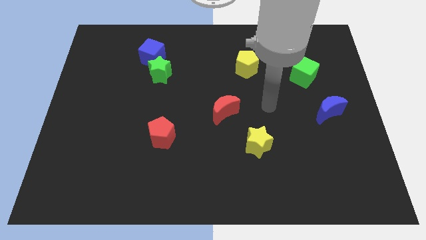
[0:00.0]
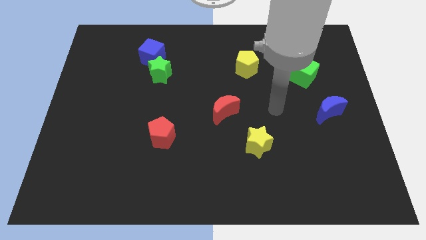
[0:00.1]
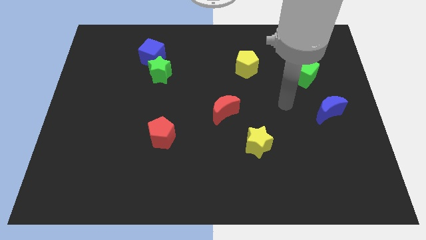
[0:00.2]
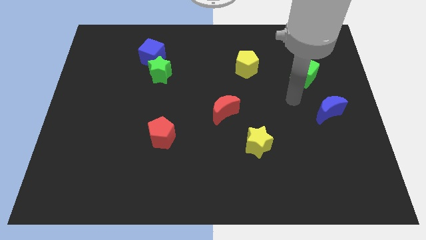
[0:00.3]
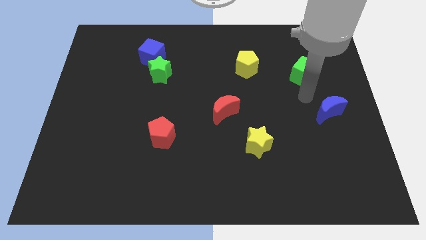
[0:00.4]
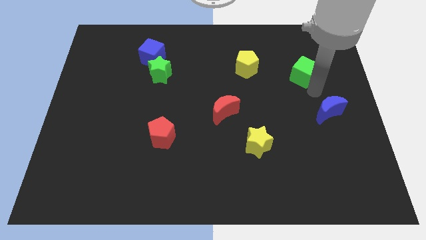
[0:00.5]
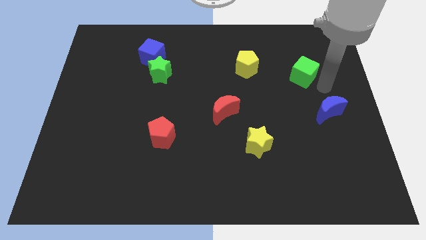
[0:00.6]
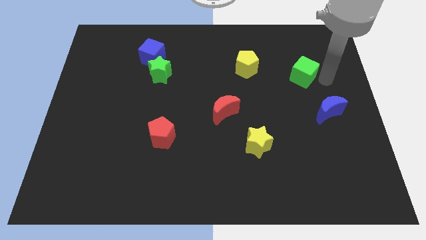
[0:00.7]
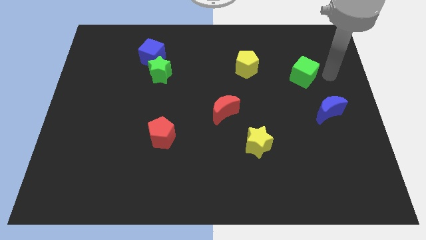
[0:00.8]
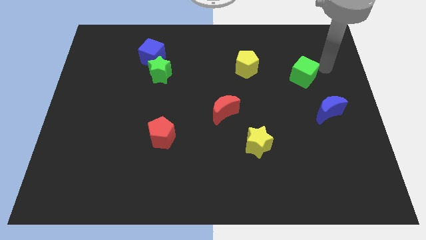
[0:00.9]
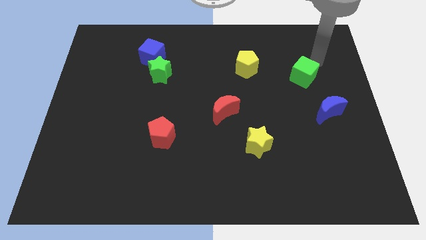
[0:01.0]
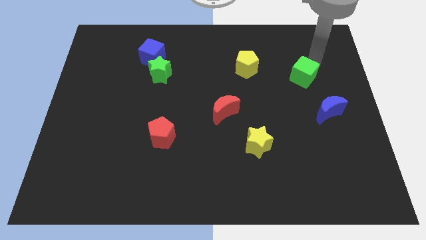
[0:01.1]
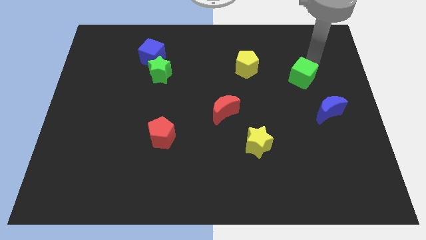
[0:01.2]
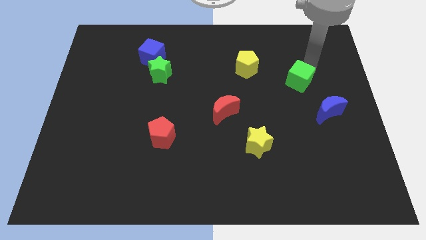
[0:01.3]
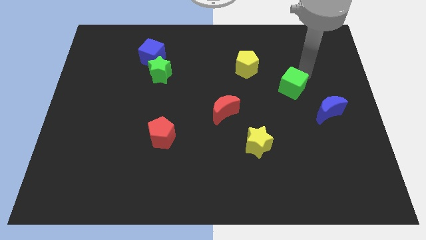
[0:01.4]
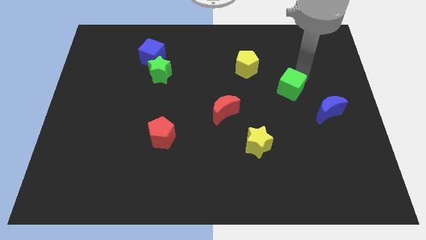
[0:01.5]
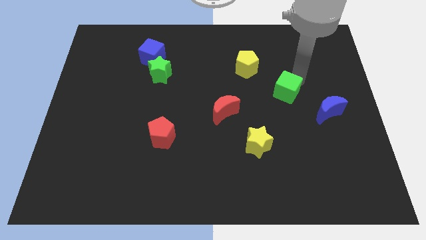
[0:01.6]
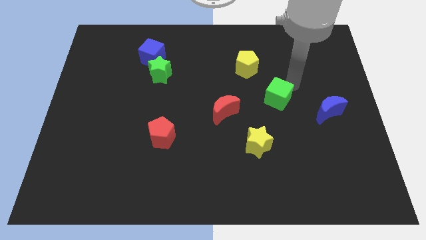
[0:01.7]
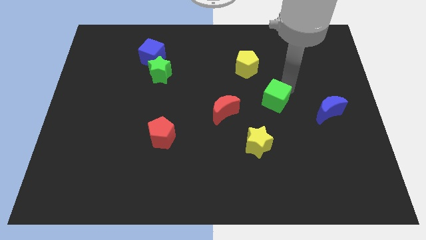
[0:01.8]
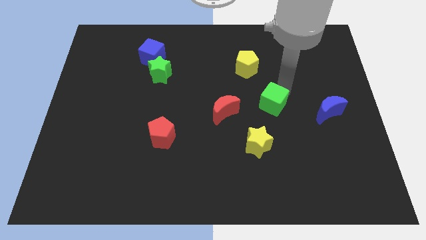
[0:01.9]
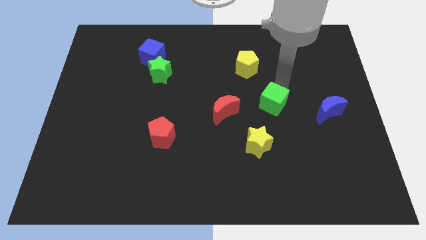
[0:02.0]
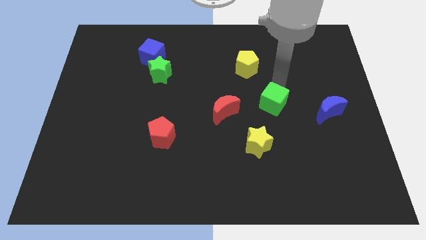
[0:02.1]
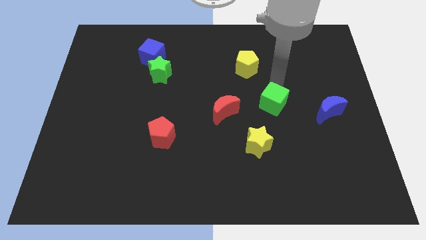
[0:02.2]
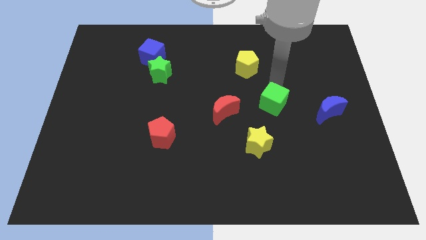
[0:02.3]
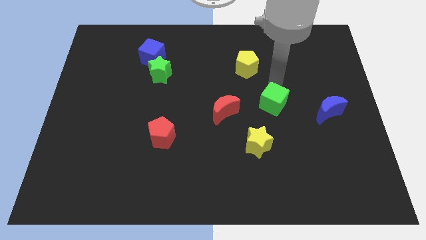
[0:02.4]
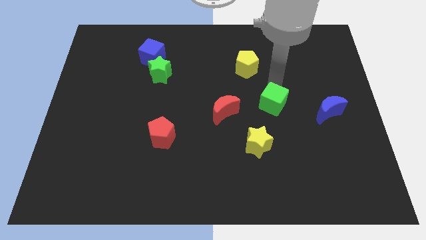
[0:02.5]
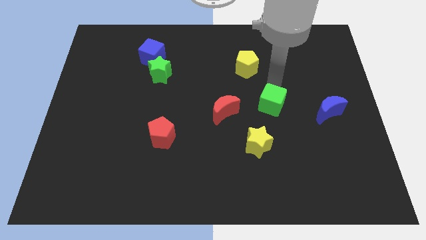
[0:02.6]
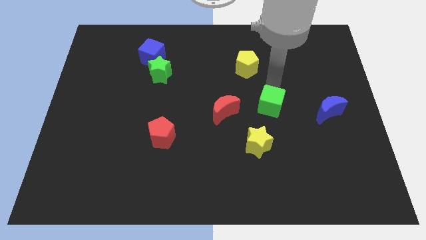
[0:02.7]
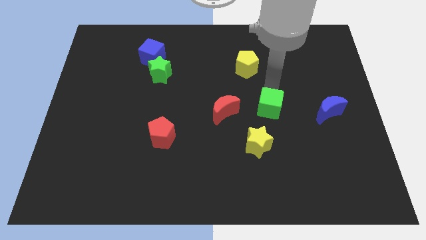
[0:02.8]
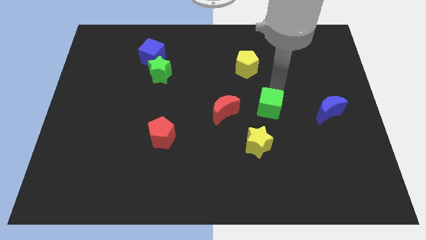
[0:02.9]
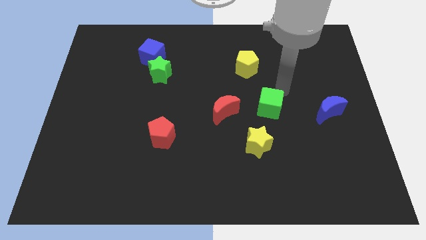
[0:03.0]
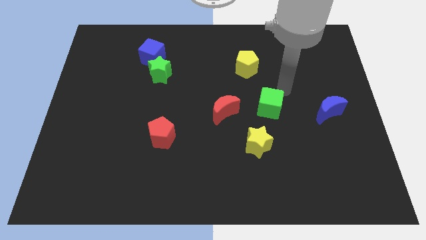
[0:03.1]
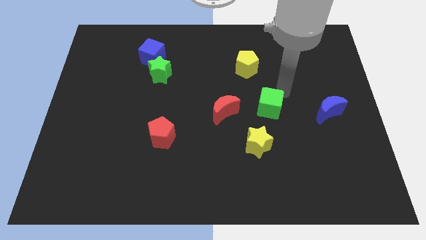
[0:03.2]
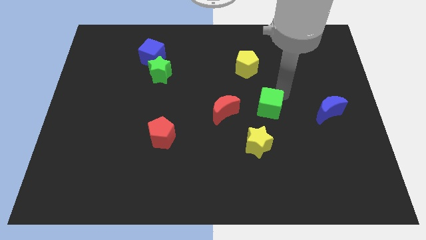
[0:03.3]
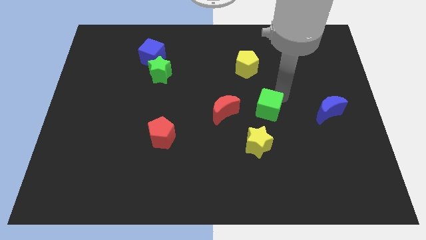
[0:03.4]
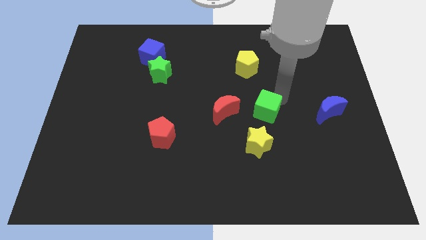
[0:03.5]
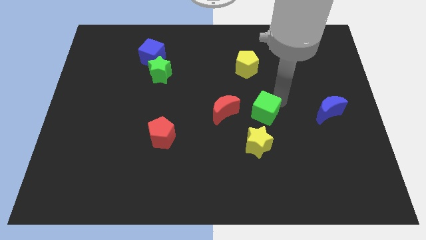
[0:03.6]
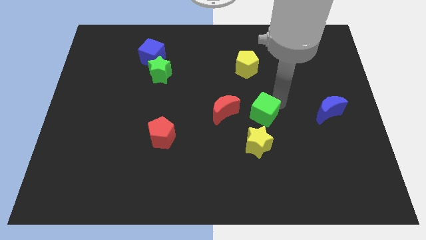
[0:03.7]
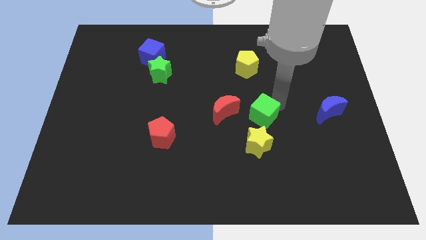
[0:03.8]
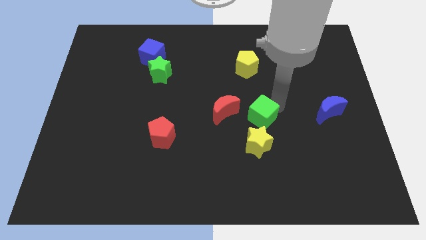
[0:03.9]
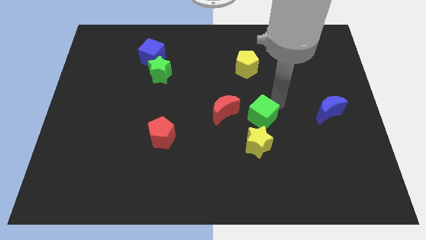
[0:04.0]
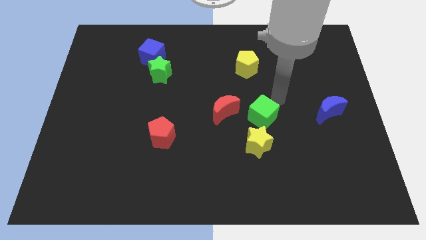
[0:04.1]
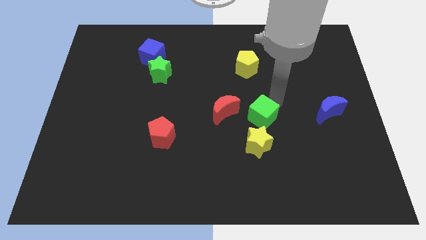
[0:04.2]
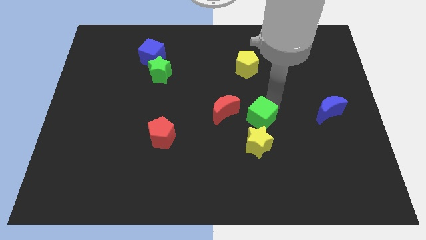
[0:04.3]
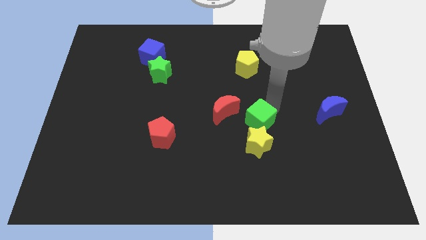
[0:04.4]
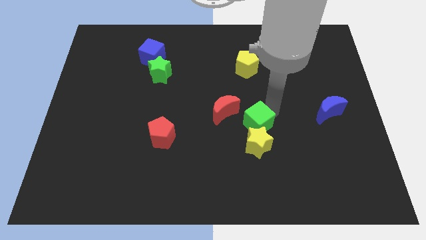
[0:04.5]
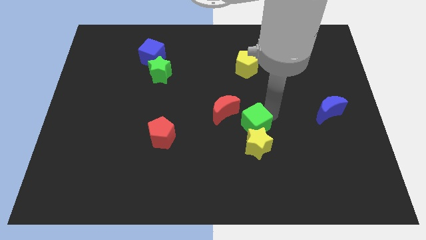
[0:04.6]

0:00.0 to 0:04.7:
move the green cube diagonally down and to the left

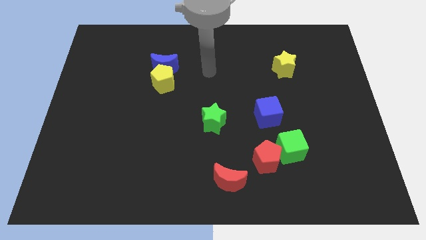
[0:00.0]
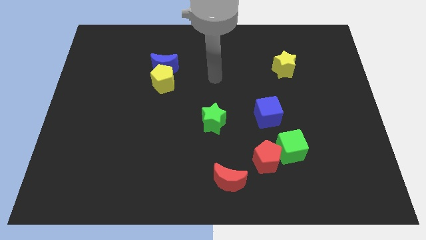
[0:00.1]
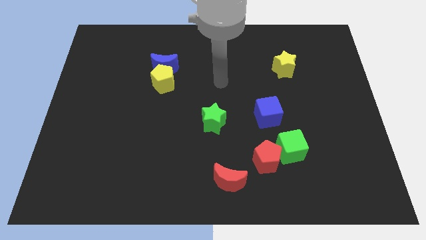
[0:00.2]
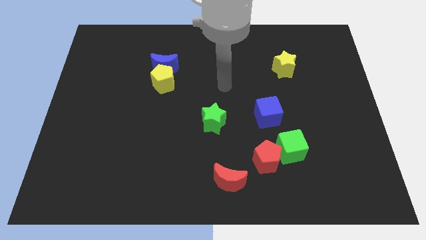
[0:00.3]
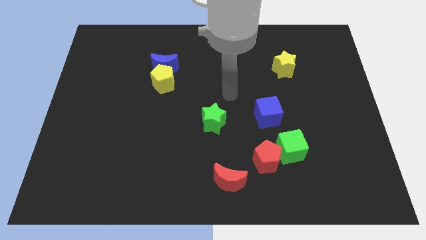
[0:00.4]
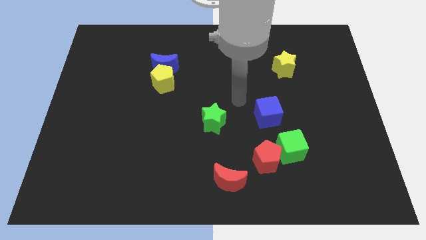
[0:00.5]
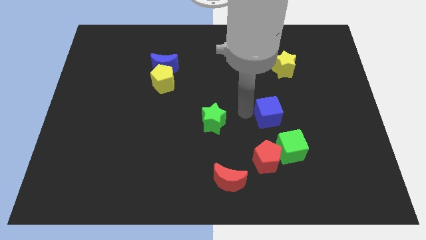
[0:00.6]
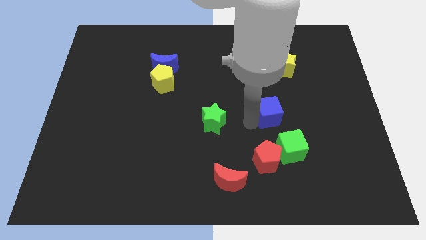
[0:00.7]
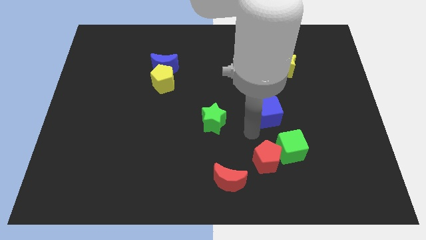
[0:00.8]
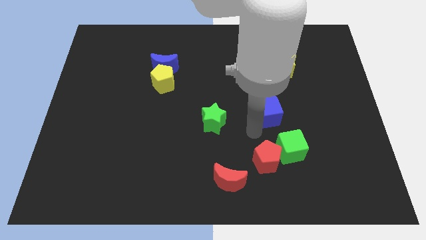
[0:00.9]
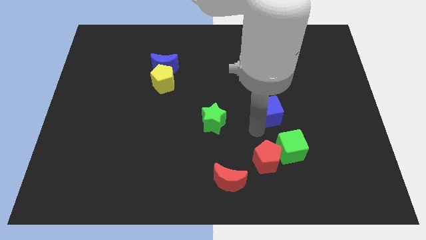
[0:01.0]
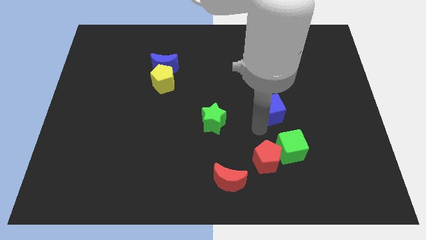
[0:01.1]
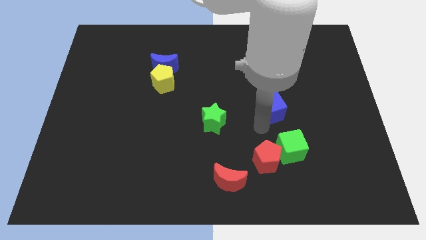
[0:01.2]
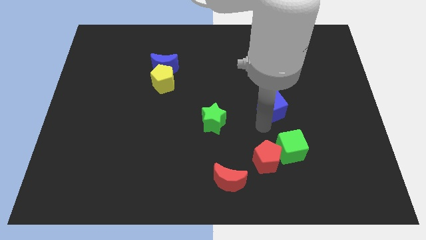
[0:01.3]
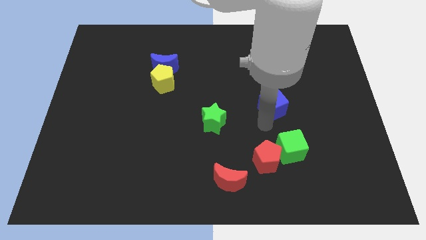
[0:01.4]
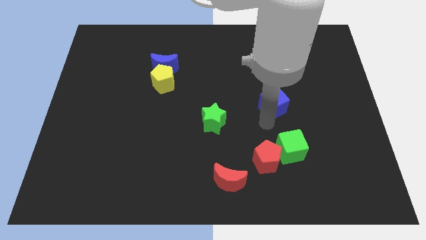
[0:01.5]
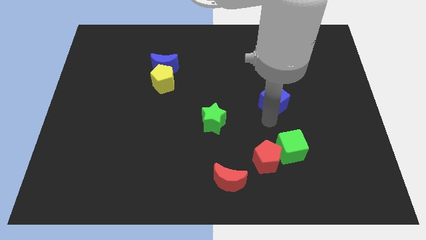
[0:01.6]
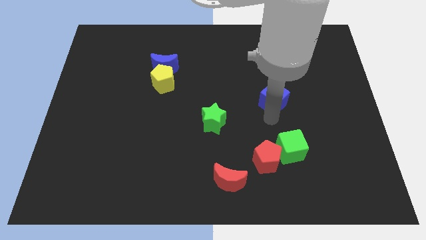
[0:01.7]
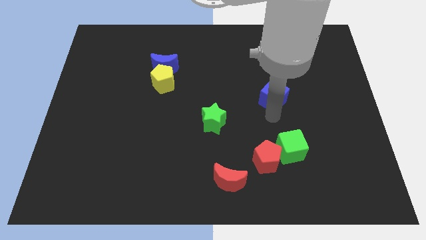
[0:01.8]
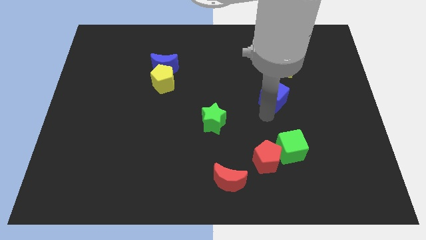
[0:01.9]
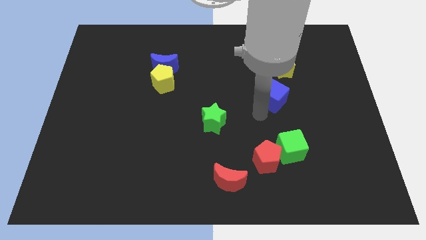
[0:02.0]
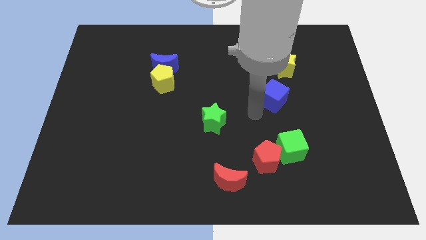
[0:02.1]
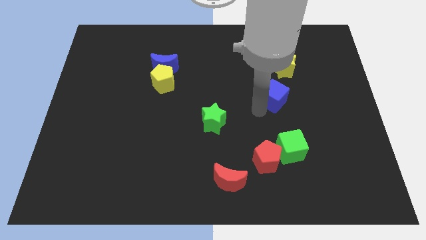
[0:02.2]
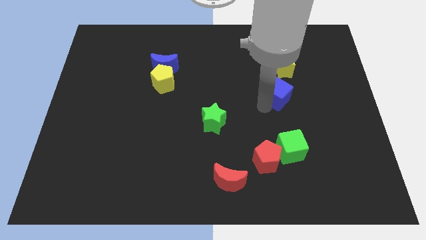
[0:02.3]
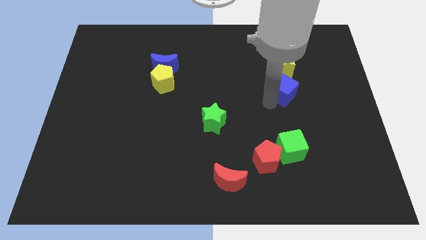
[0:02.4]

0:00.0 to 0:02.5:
slide the blue cube upwards and right diagonally slightly

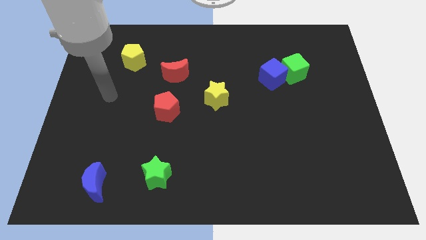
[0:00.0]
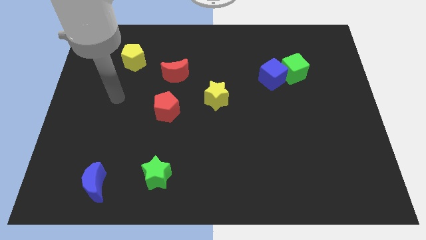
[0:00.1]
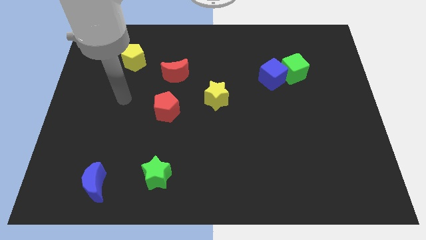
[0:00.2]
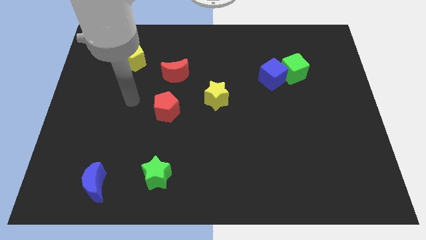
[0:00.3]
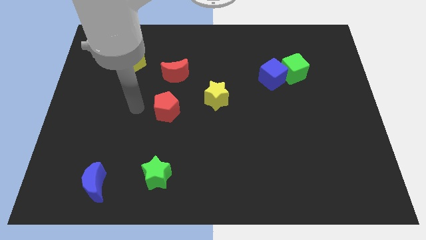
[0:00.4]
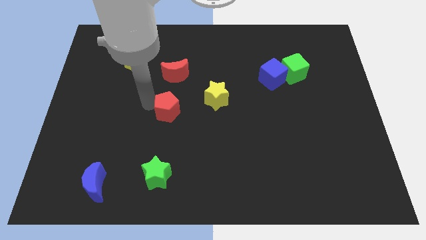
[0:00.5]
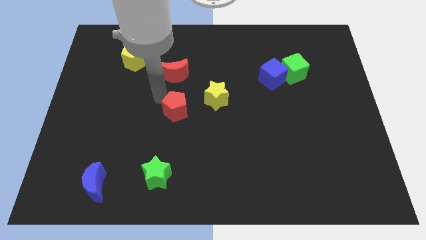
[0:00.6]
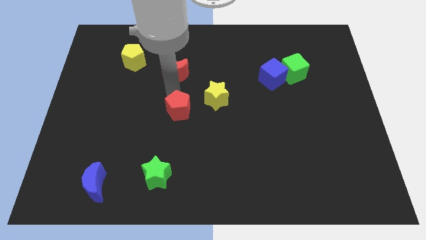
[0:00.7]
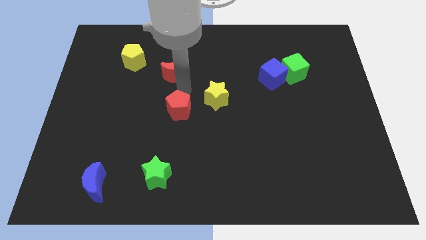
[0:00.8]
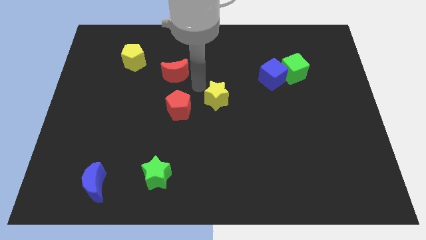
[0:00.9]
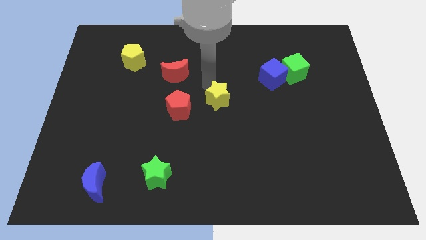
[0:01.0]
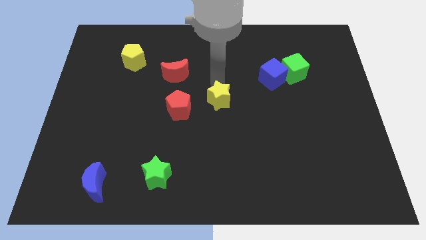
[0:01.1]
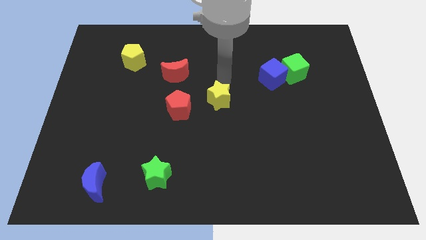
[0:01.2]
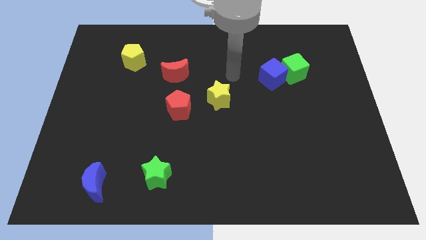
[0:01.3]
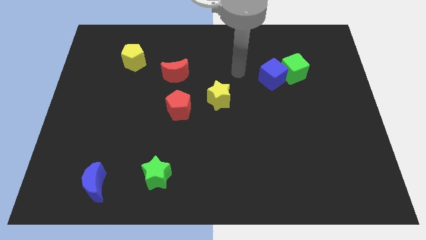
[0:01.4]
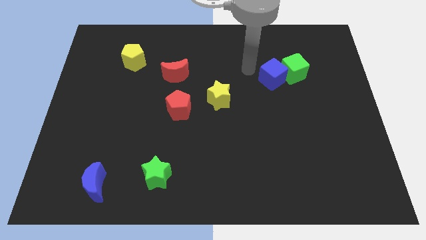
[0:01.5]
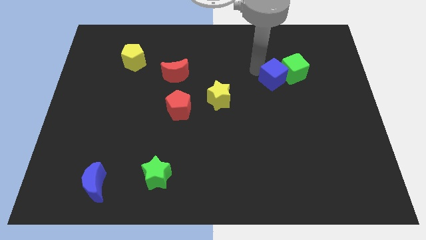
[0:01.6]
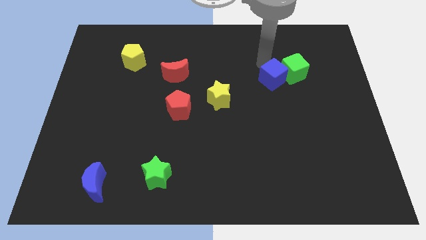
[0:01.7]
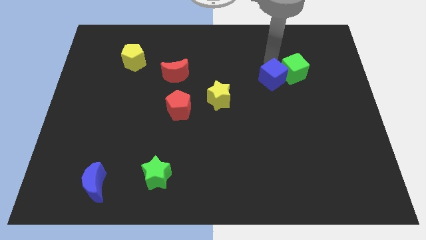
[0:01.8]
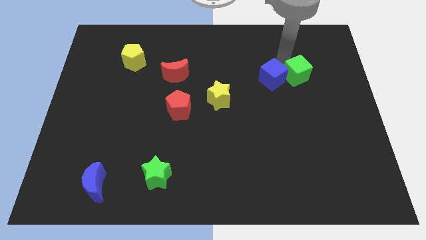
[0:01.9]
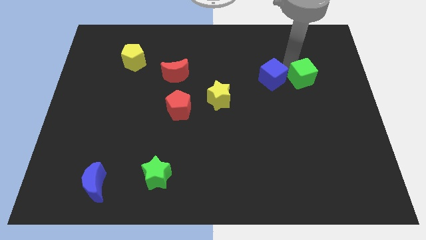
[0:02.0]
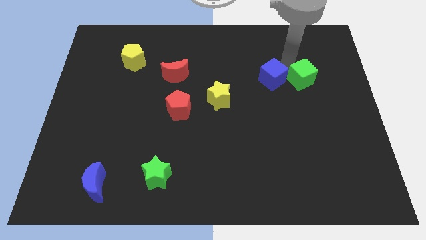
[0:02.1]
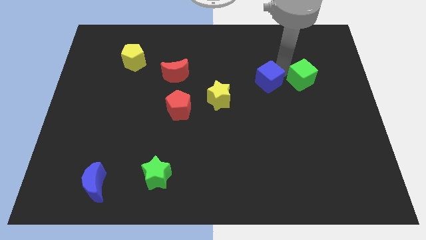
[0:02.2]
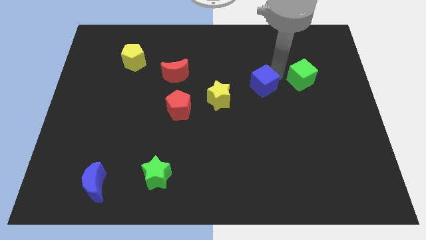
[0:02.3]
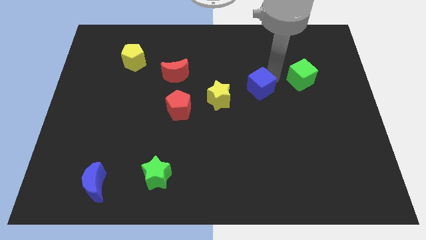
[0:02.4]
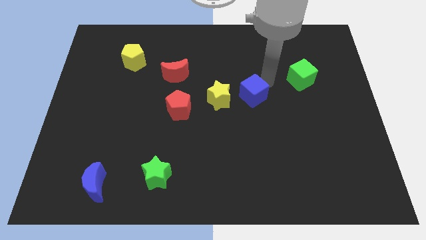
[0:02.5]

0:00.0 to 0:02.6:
slightly slide the blue cube down and then to the left
